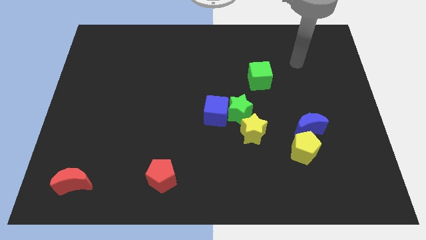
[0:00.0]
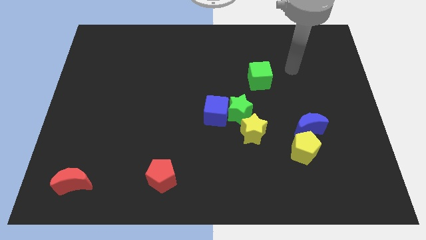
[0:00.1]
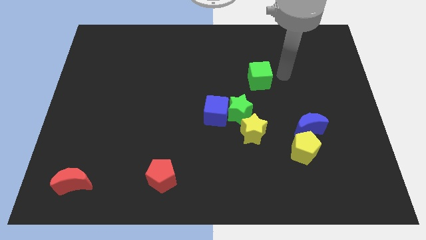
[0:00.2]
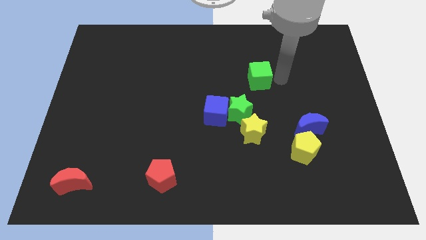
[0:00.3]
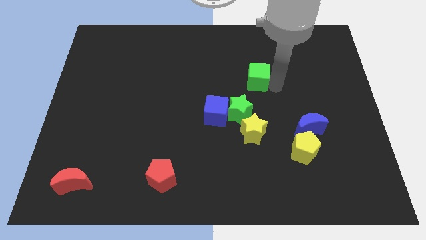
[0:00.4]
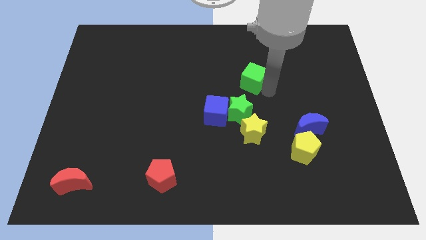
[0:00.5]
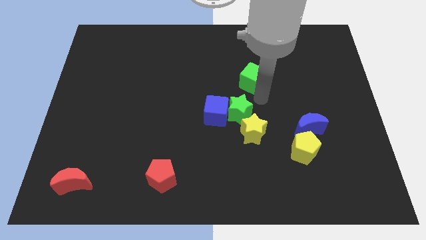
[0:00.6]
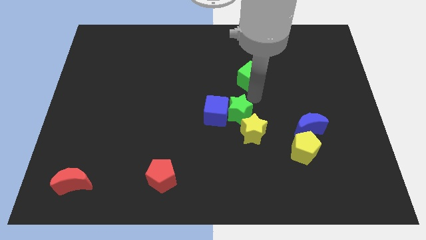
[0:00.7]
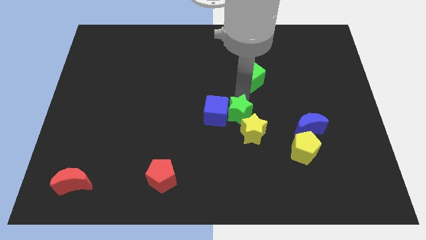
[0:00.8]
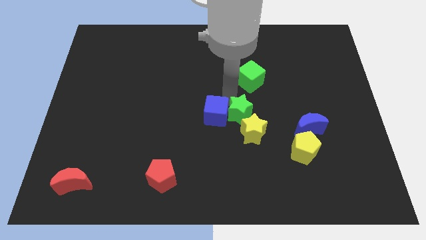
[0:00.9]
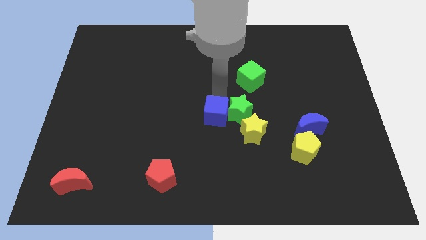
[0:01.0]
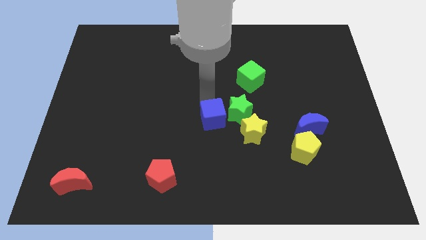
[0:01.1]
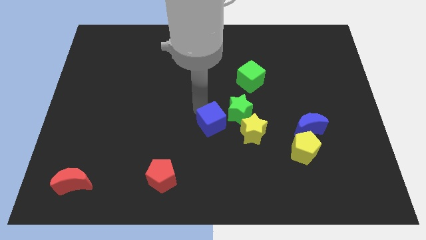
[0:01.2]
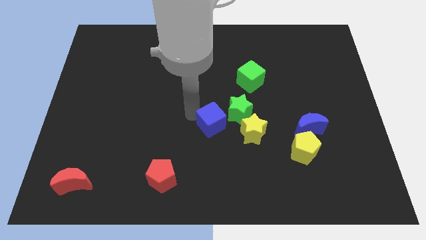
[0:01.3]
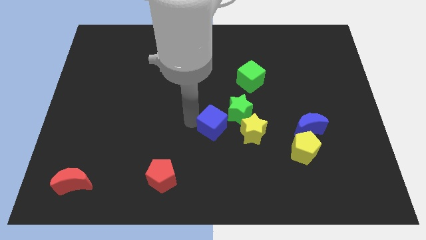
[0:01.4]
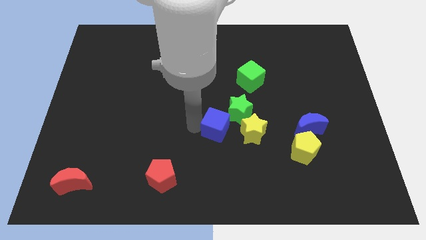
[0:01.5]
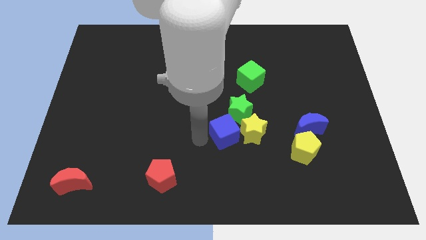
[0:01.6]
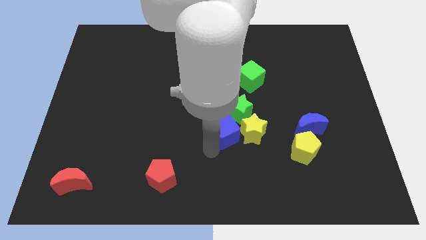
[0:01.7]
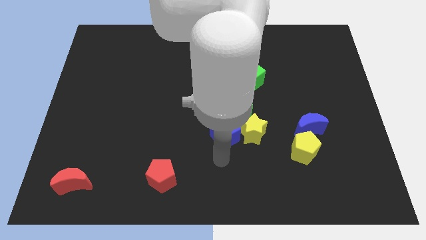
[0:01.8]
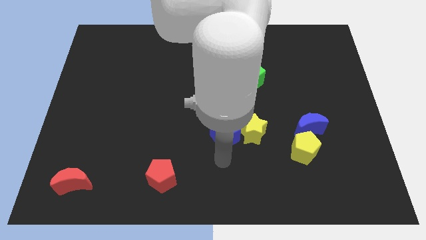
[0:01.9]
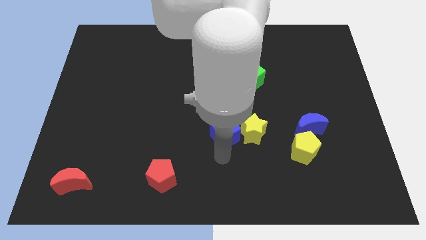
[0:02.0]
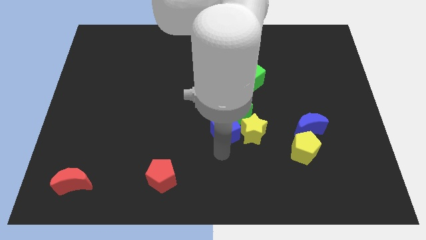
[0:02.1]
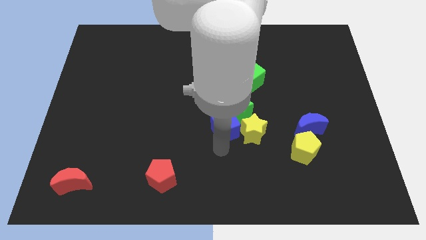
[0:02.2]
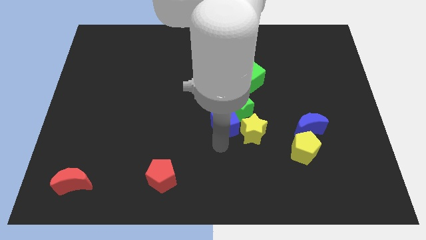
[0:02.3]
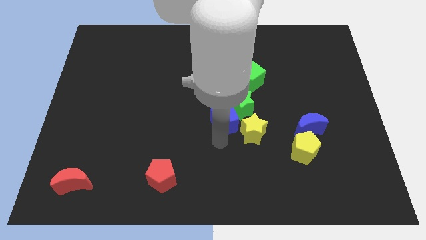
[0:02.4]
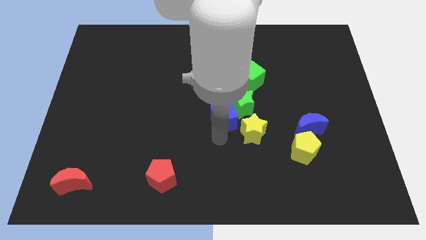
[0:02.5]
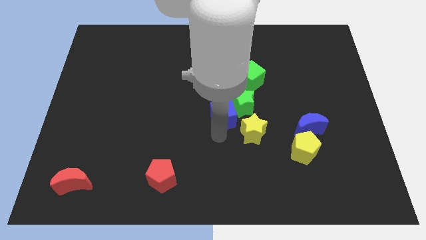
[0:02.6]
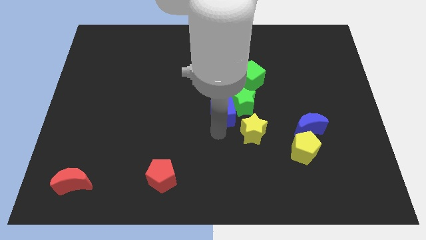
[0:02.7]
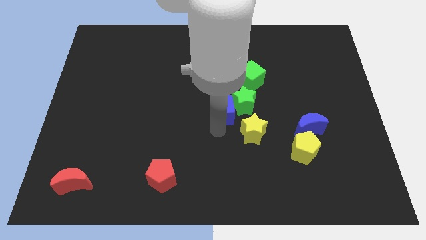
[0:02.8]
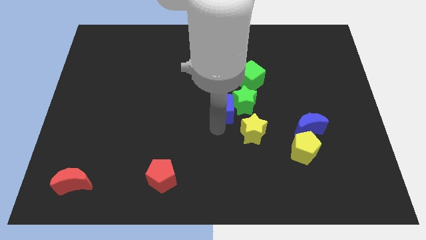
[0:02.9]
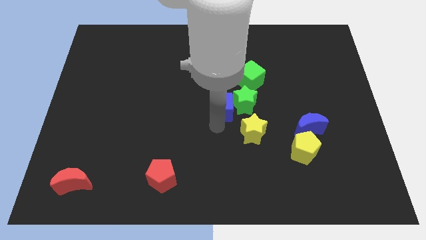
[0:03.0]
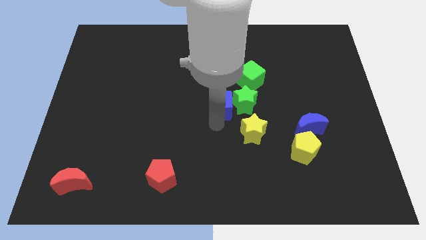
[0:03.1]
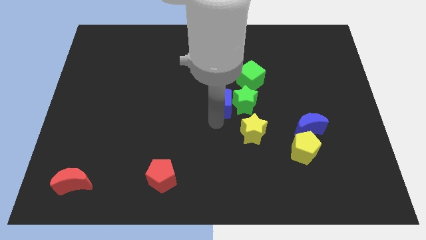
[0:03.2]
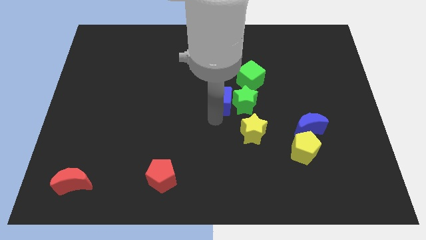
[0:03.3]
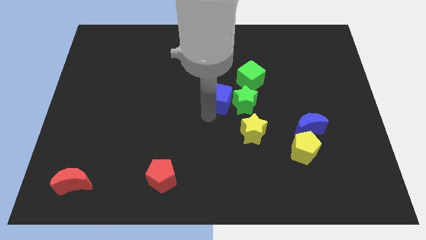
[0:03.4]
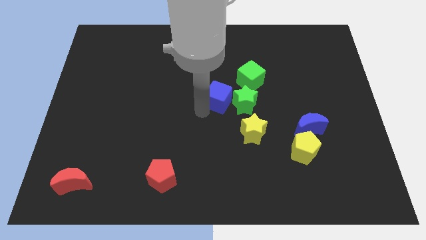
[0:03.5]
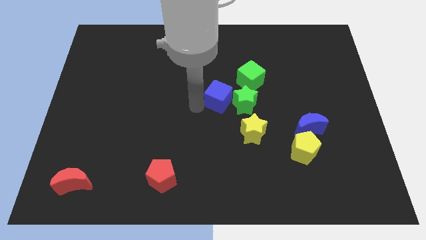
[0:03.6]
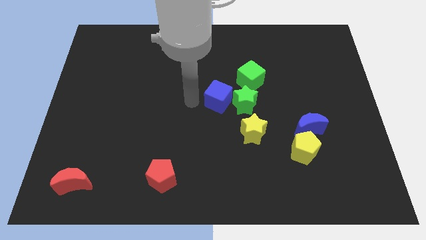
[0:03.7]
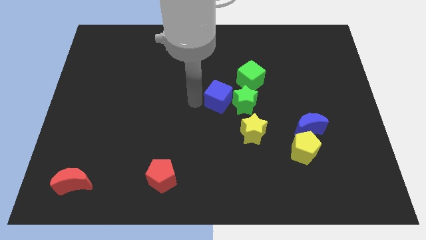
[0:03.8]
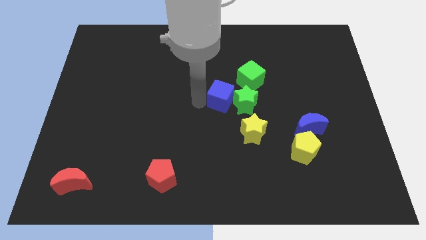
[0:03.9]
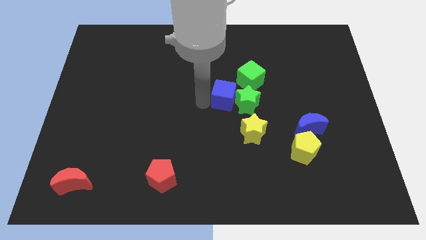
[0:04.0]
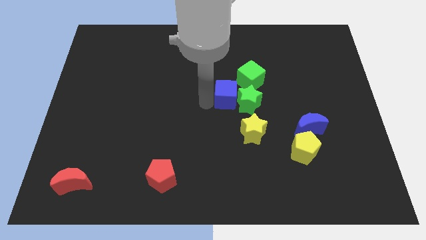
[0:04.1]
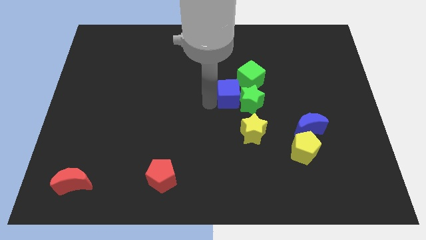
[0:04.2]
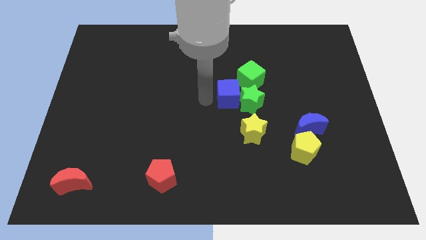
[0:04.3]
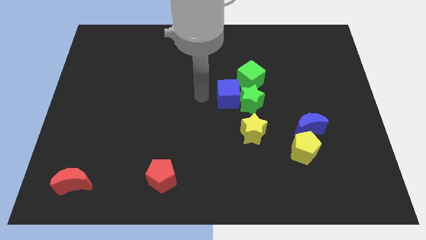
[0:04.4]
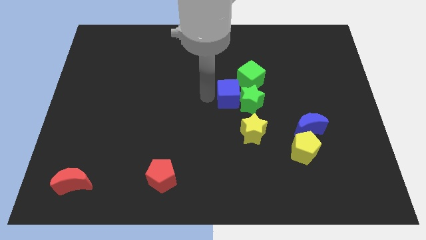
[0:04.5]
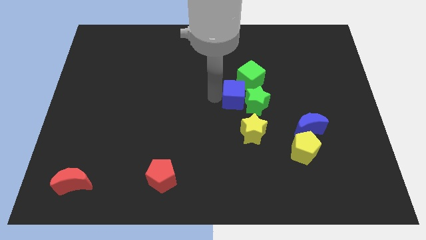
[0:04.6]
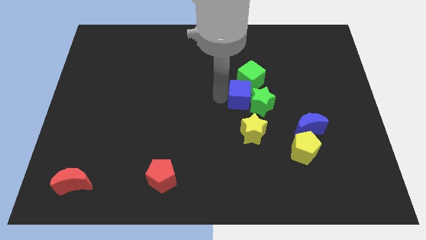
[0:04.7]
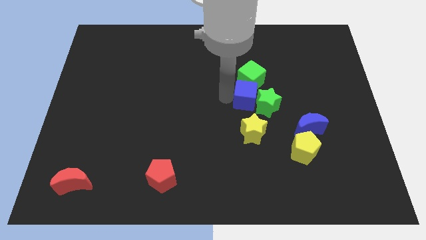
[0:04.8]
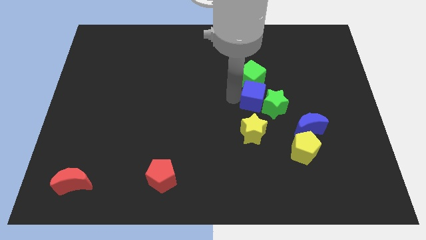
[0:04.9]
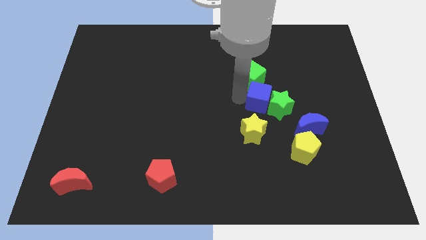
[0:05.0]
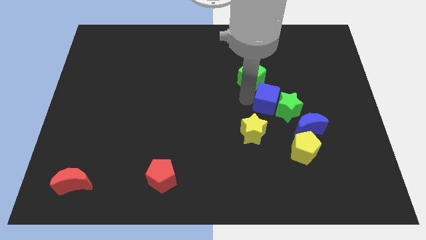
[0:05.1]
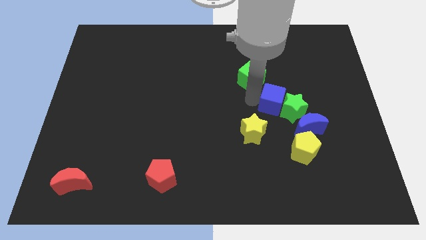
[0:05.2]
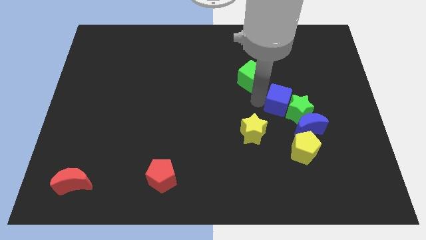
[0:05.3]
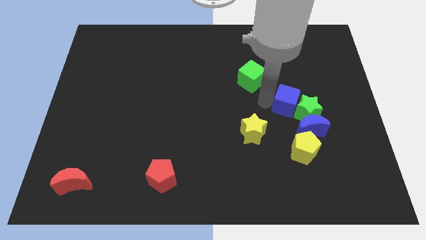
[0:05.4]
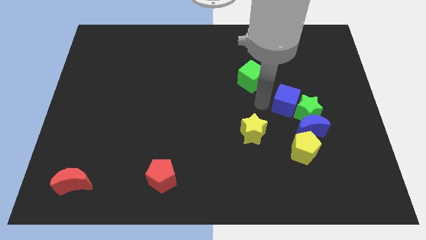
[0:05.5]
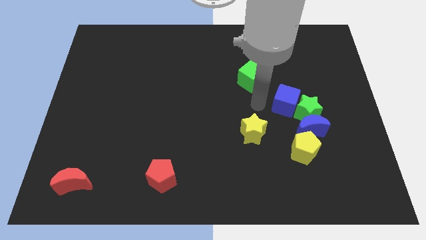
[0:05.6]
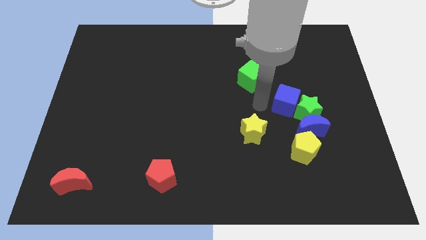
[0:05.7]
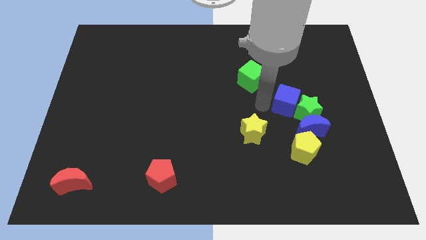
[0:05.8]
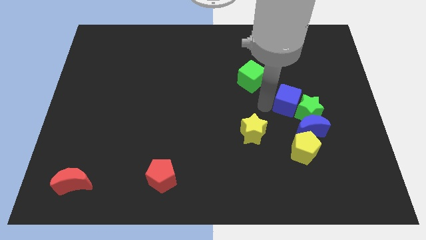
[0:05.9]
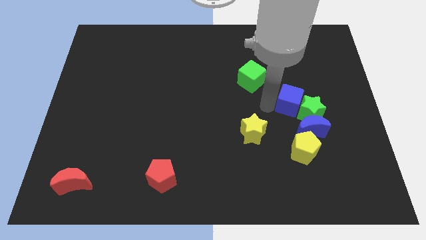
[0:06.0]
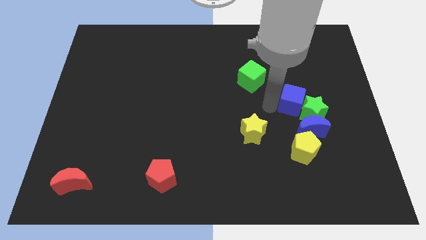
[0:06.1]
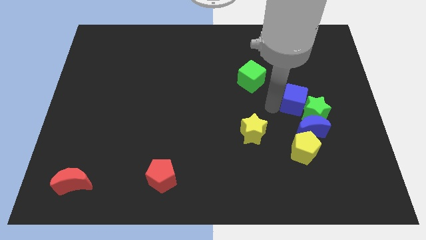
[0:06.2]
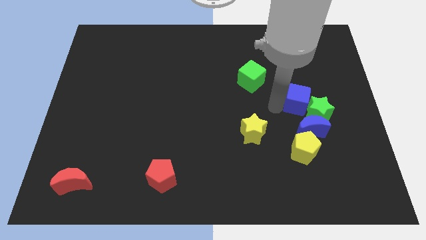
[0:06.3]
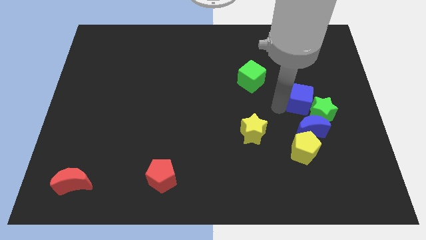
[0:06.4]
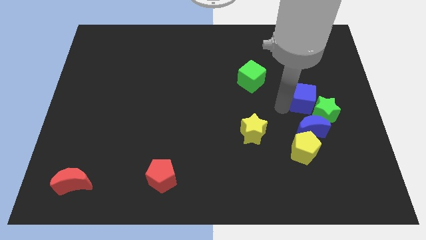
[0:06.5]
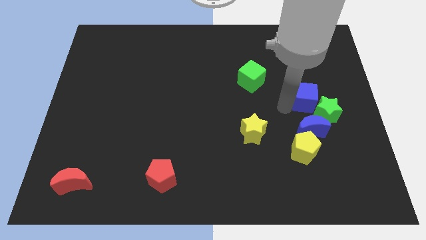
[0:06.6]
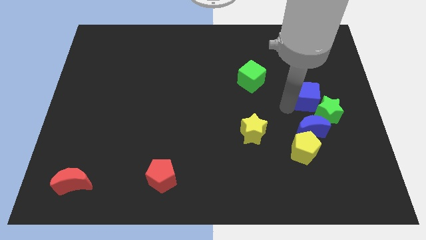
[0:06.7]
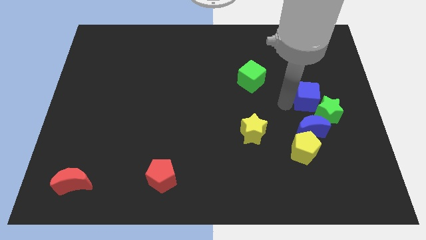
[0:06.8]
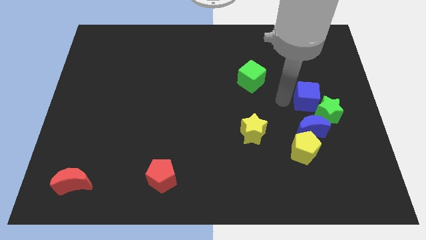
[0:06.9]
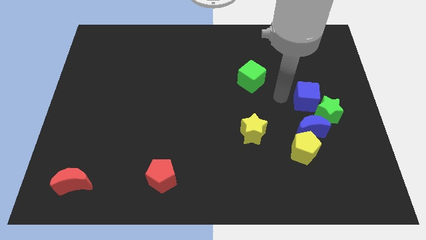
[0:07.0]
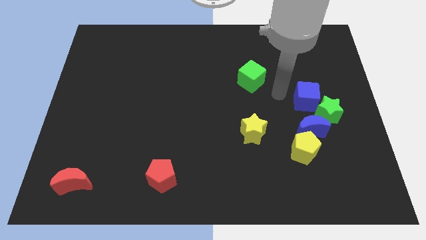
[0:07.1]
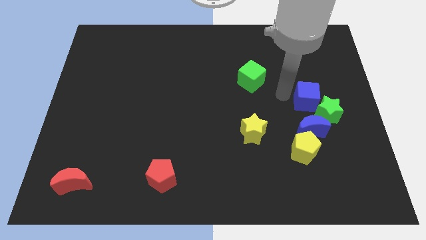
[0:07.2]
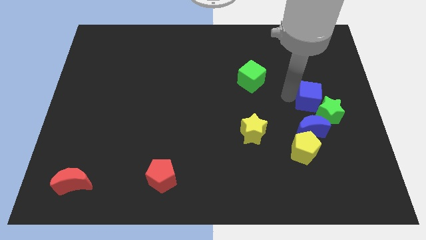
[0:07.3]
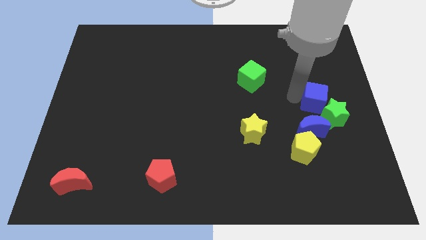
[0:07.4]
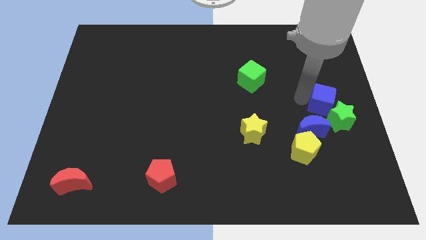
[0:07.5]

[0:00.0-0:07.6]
slide the blue cube to the right side of the board
